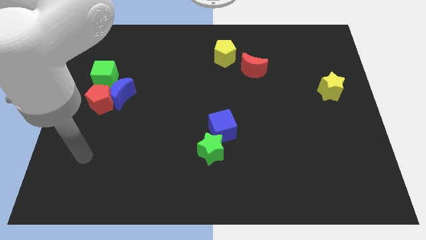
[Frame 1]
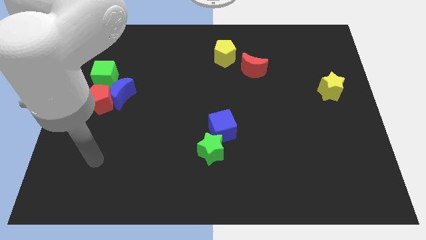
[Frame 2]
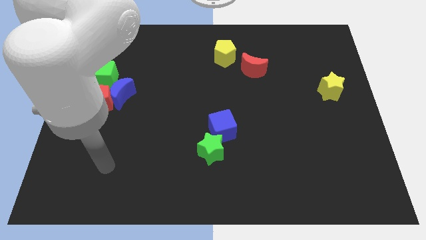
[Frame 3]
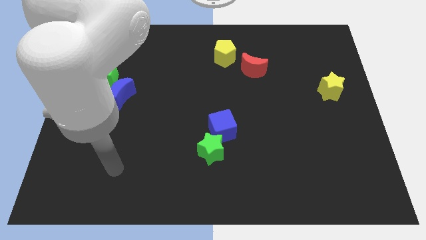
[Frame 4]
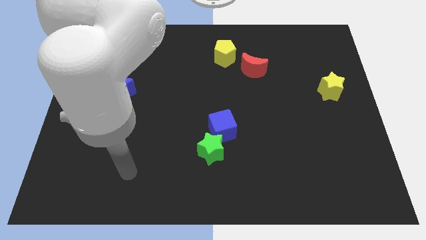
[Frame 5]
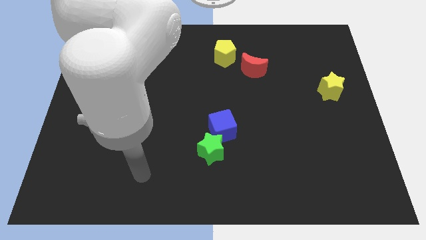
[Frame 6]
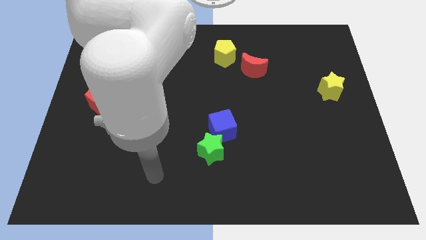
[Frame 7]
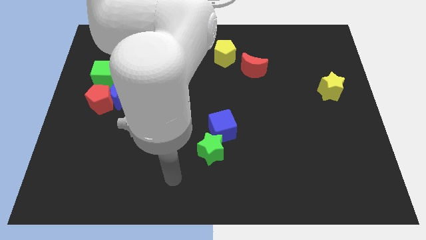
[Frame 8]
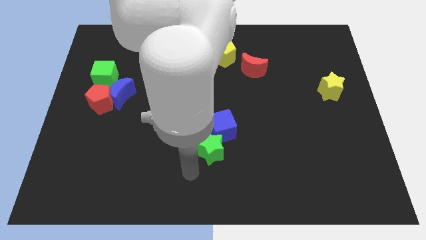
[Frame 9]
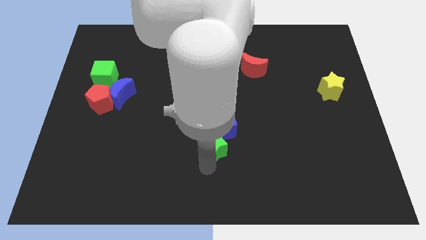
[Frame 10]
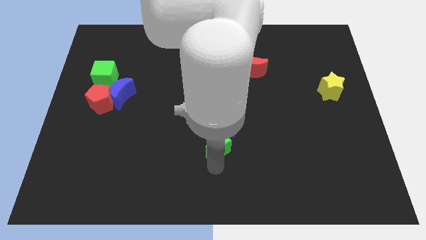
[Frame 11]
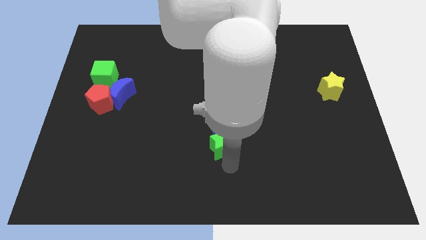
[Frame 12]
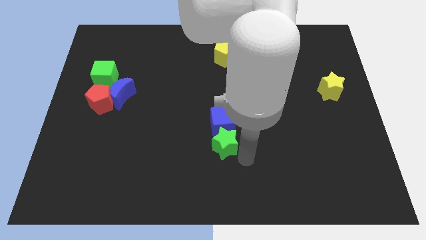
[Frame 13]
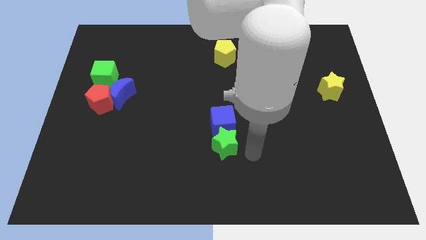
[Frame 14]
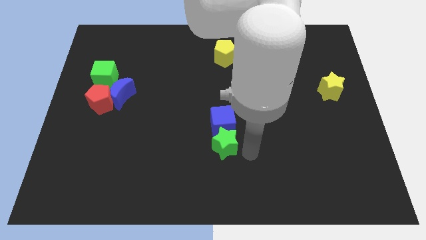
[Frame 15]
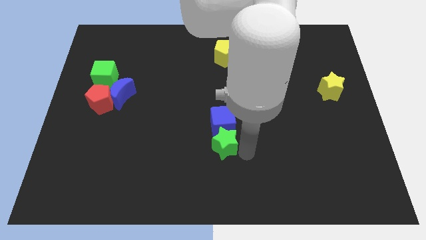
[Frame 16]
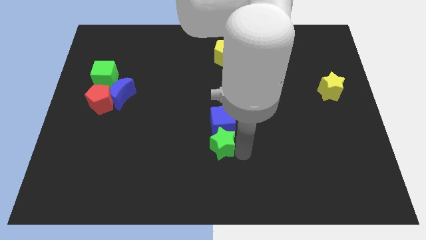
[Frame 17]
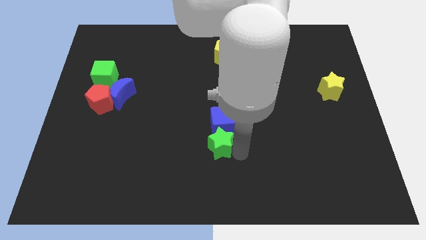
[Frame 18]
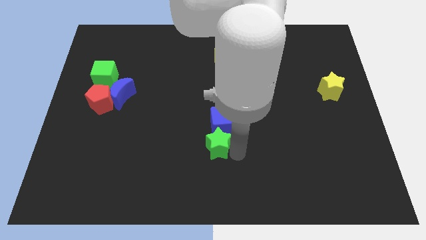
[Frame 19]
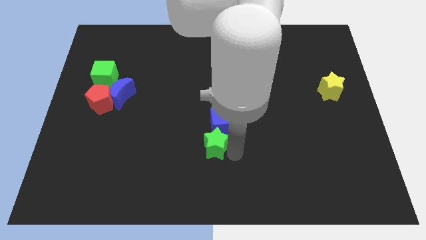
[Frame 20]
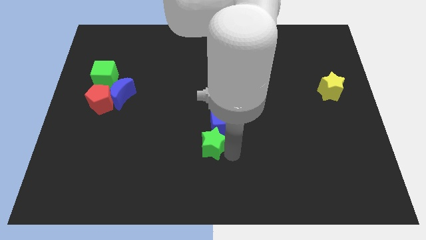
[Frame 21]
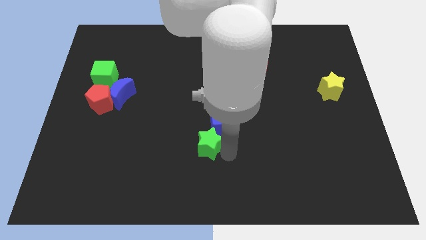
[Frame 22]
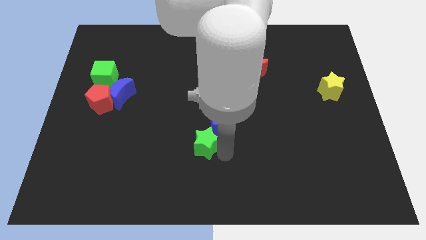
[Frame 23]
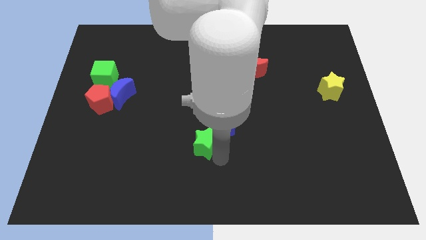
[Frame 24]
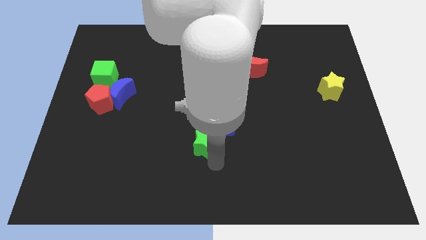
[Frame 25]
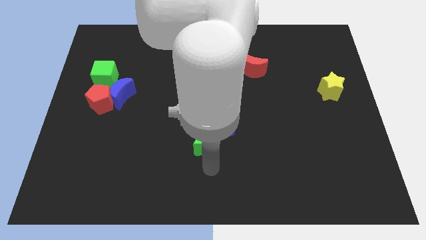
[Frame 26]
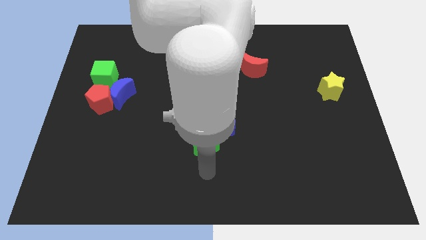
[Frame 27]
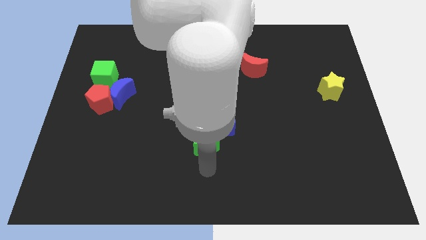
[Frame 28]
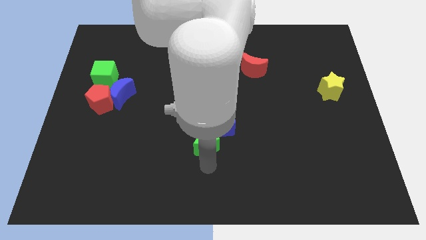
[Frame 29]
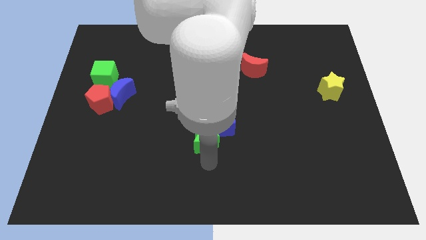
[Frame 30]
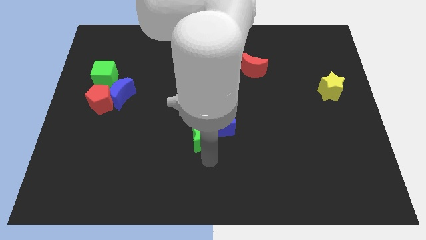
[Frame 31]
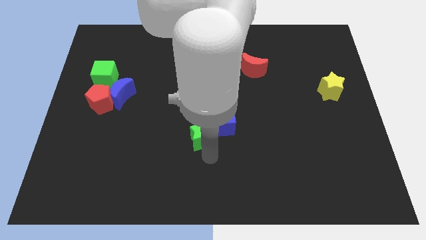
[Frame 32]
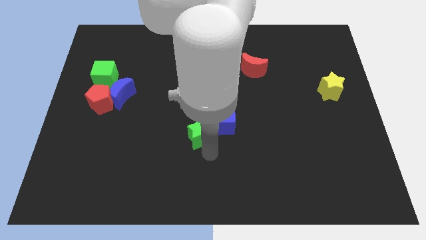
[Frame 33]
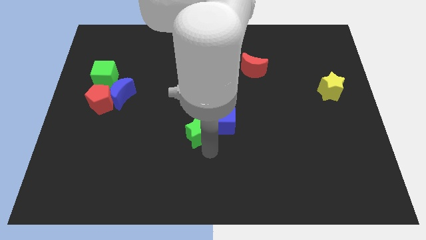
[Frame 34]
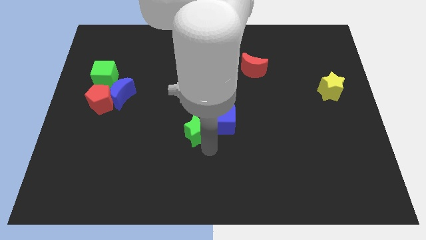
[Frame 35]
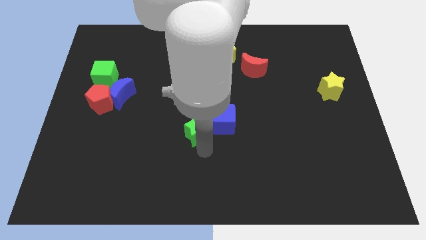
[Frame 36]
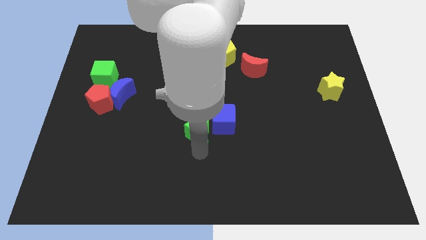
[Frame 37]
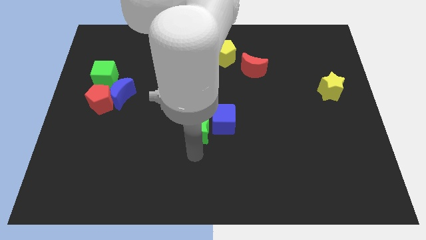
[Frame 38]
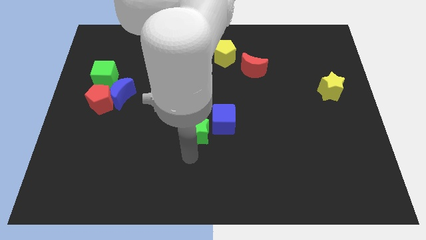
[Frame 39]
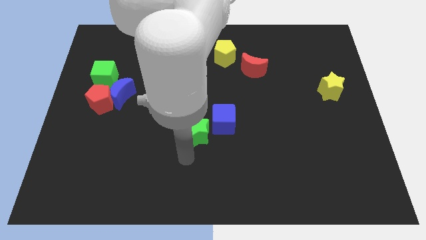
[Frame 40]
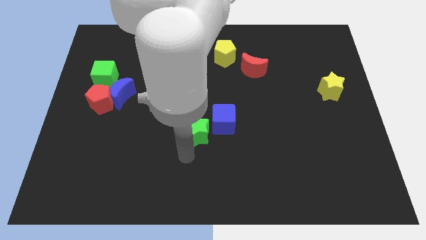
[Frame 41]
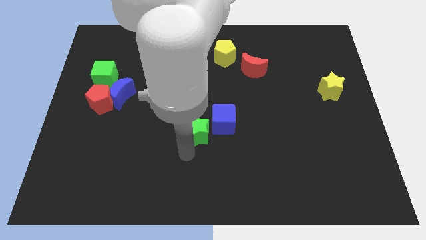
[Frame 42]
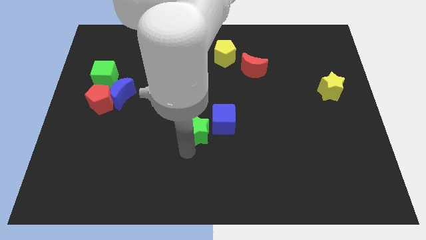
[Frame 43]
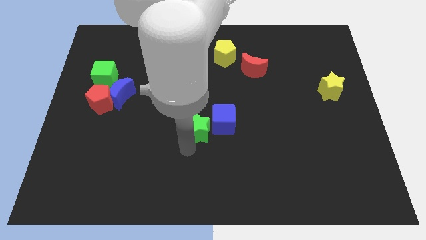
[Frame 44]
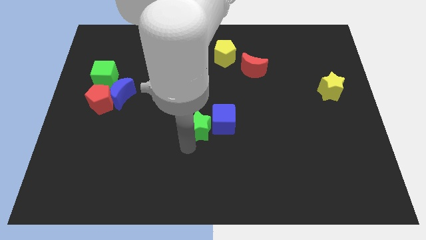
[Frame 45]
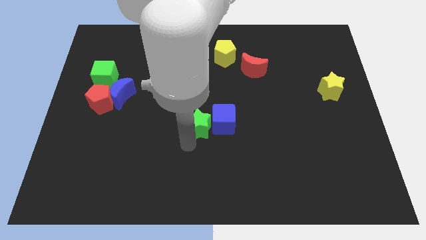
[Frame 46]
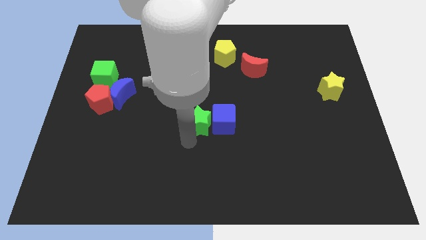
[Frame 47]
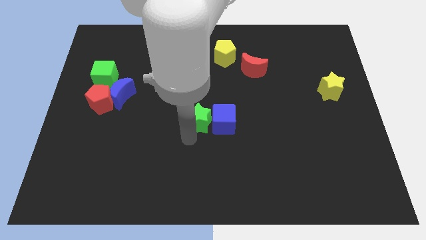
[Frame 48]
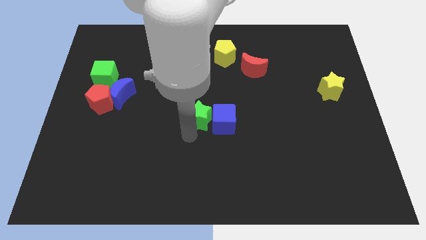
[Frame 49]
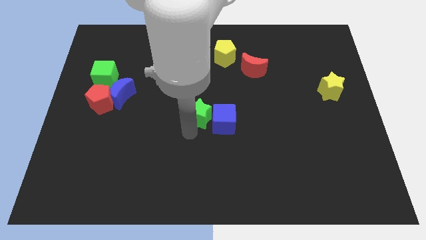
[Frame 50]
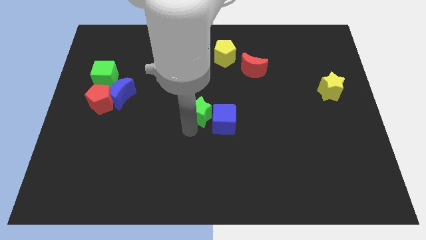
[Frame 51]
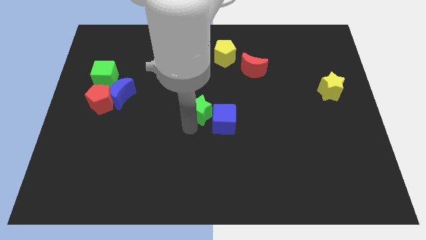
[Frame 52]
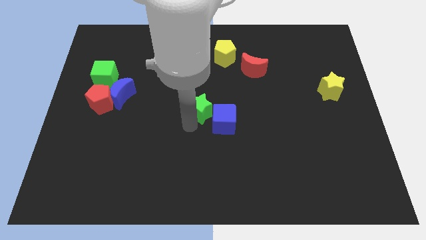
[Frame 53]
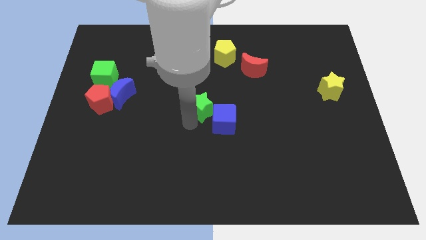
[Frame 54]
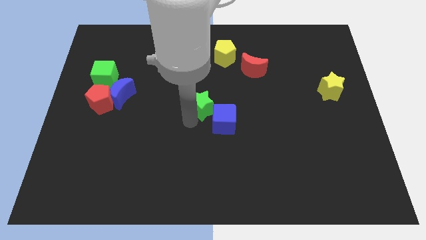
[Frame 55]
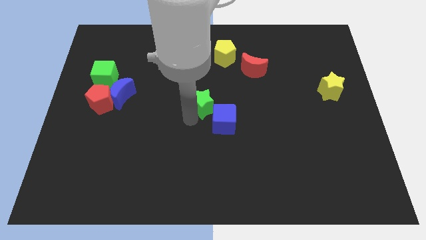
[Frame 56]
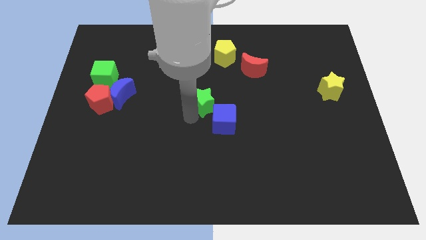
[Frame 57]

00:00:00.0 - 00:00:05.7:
push the green star to the top of the blue cube
